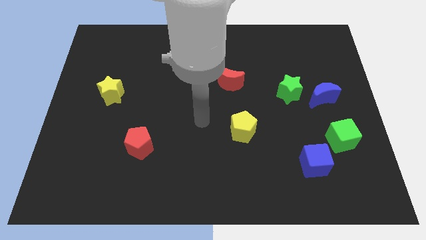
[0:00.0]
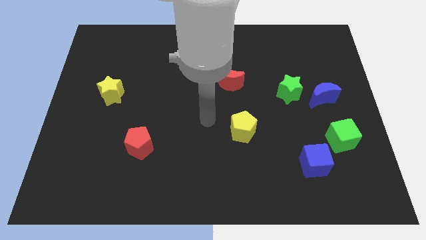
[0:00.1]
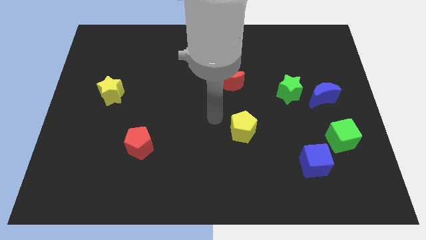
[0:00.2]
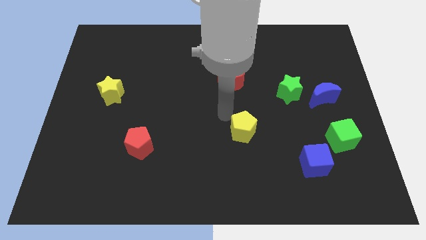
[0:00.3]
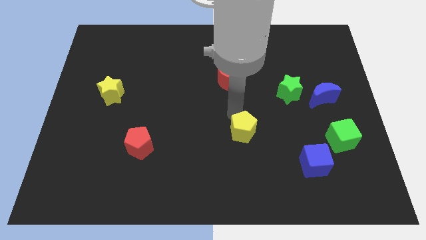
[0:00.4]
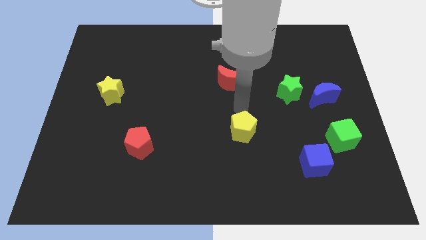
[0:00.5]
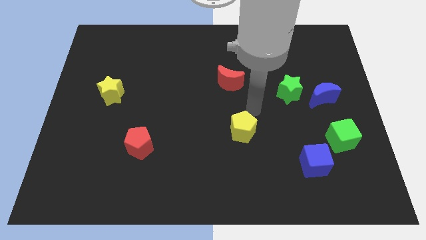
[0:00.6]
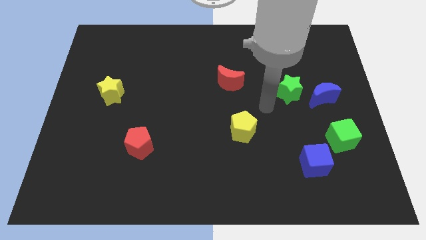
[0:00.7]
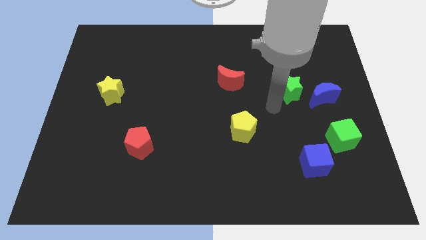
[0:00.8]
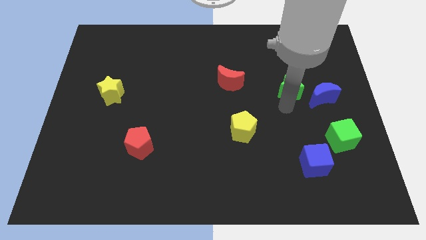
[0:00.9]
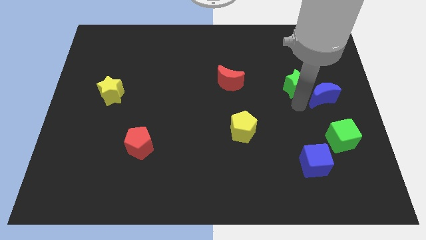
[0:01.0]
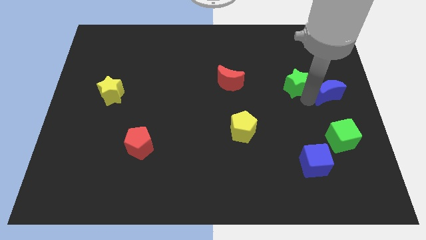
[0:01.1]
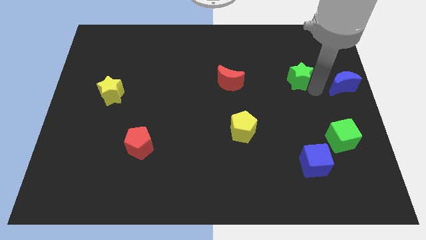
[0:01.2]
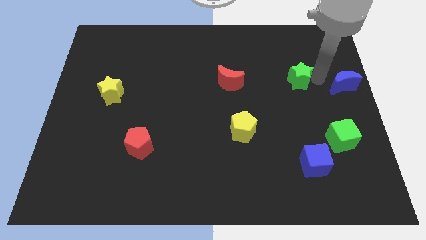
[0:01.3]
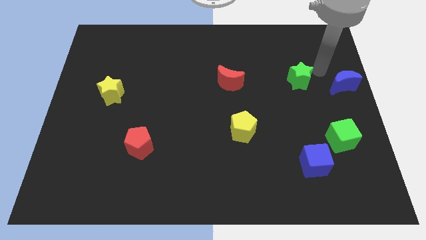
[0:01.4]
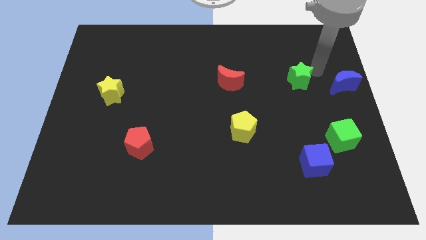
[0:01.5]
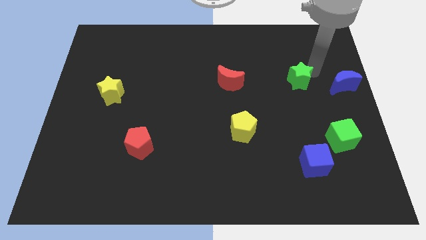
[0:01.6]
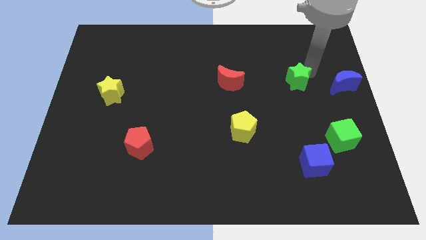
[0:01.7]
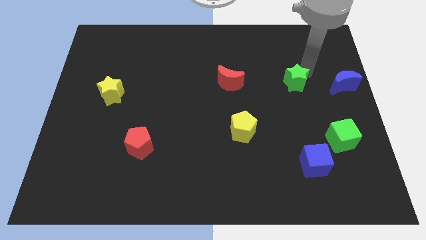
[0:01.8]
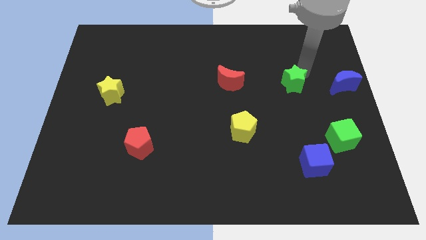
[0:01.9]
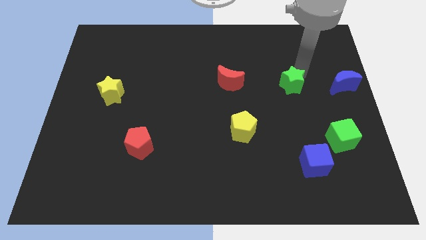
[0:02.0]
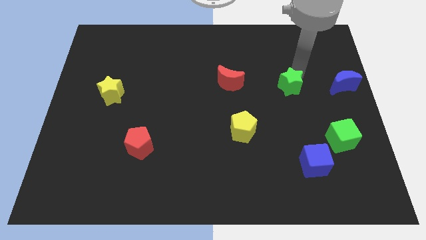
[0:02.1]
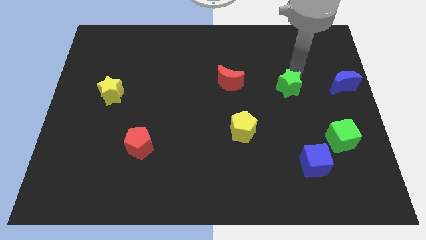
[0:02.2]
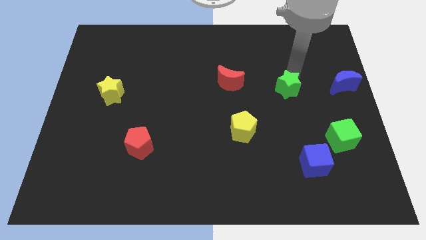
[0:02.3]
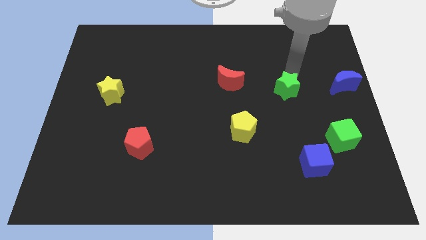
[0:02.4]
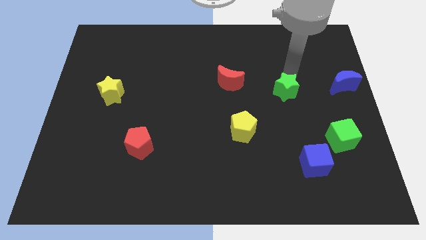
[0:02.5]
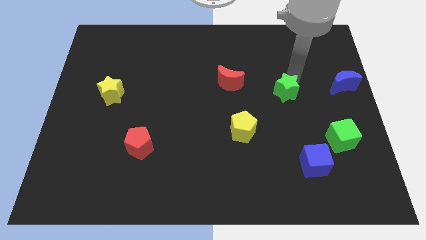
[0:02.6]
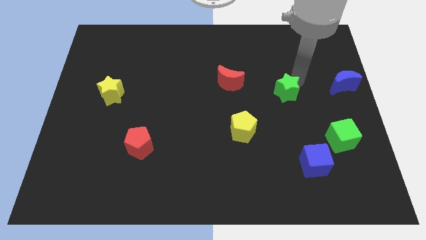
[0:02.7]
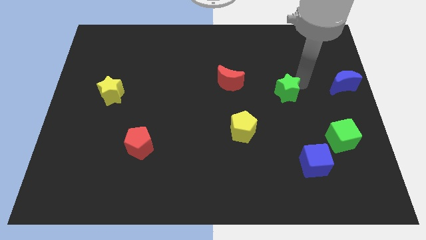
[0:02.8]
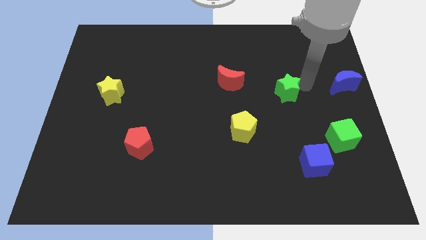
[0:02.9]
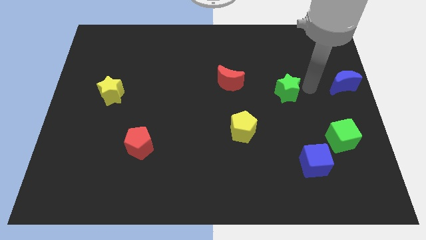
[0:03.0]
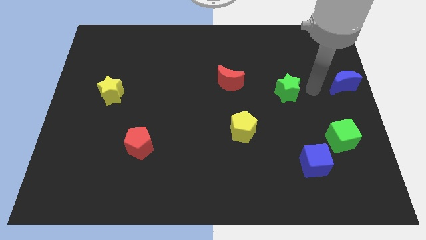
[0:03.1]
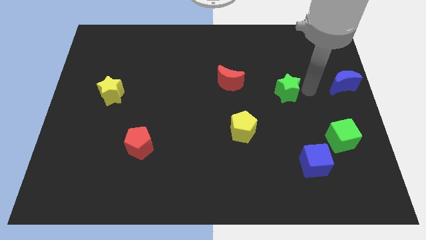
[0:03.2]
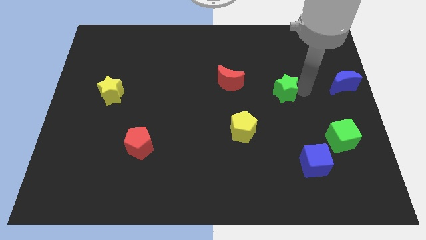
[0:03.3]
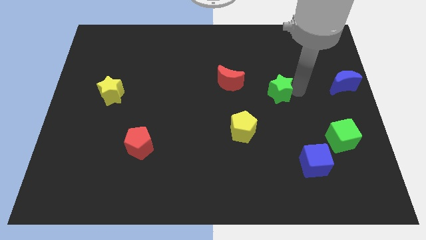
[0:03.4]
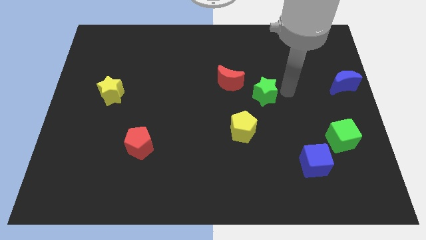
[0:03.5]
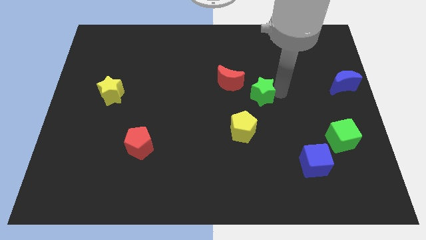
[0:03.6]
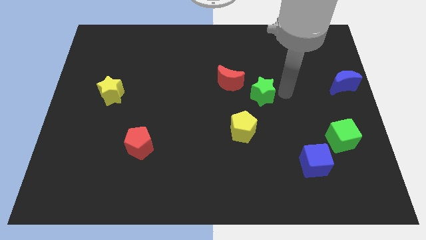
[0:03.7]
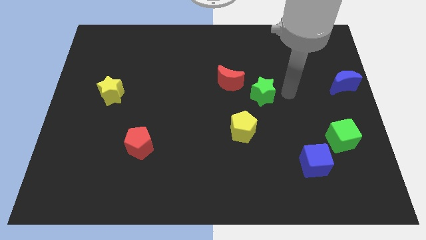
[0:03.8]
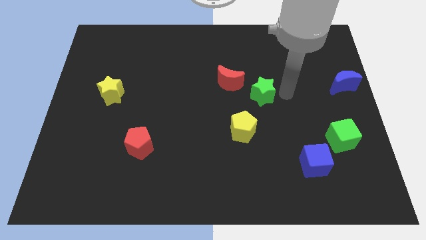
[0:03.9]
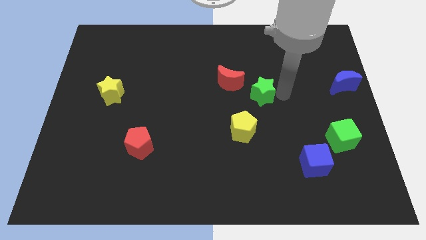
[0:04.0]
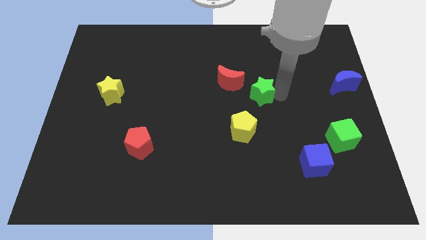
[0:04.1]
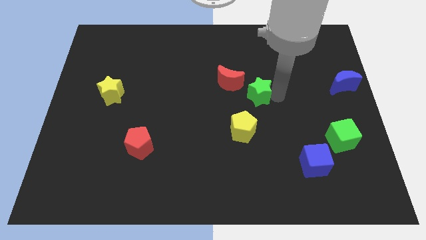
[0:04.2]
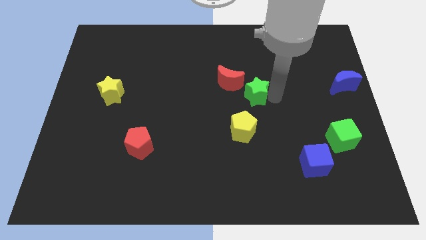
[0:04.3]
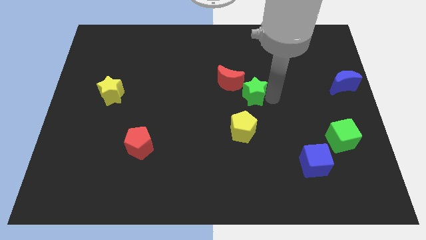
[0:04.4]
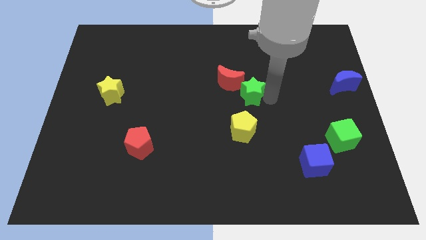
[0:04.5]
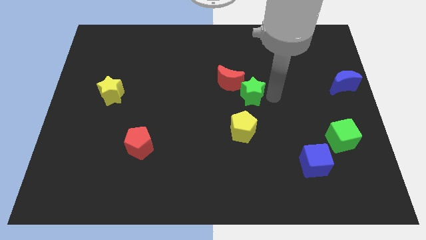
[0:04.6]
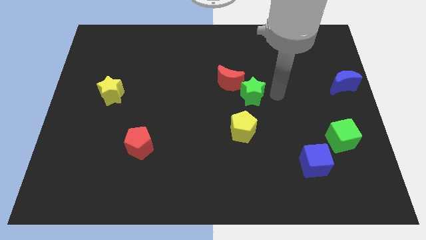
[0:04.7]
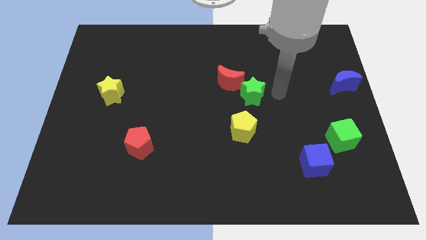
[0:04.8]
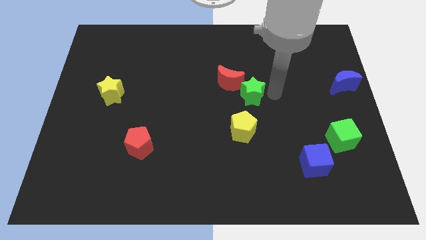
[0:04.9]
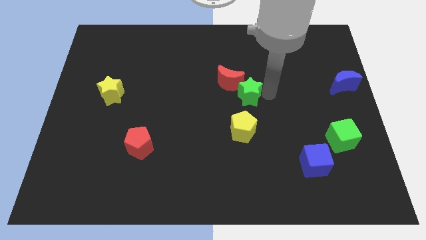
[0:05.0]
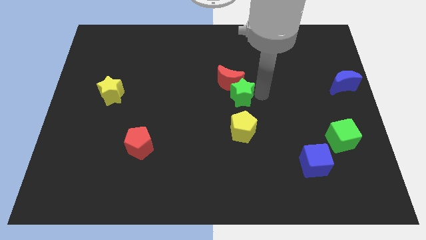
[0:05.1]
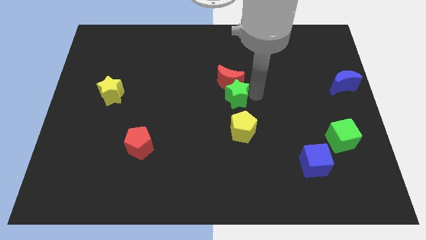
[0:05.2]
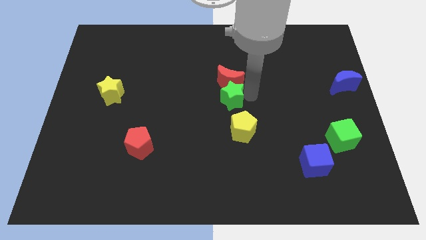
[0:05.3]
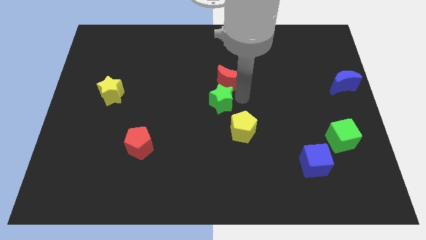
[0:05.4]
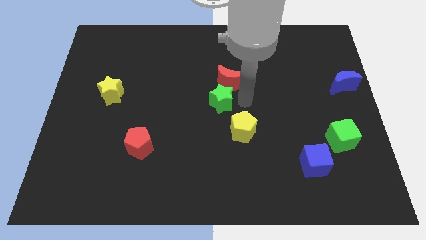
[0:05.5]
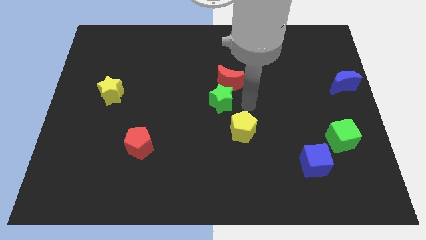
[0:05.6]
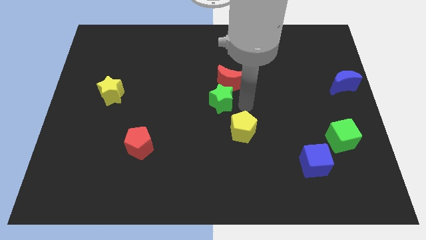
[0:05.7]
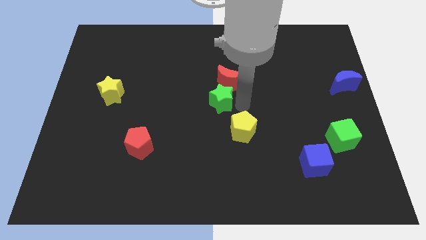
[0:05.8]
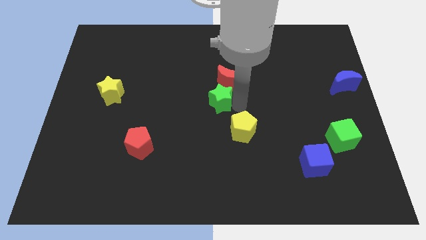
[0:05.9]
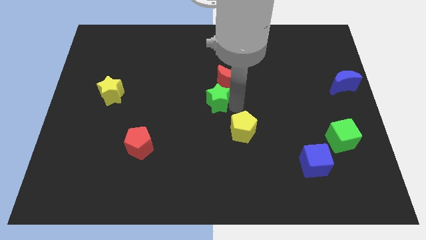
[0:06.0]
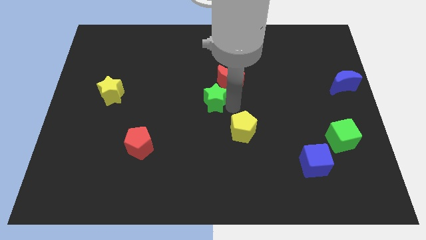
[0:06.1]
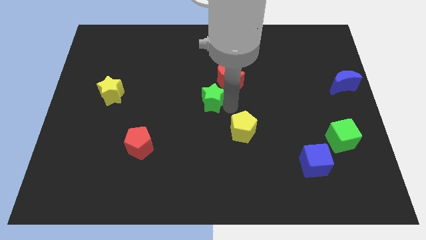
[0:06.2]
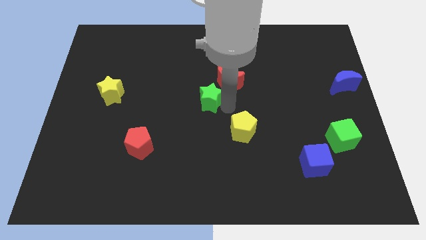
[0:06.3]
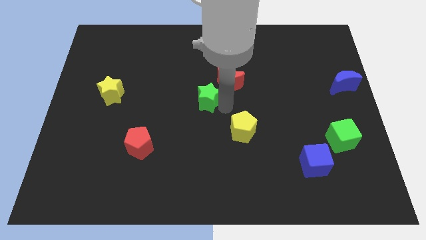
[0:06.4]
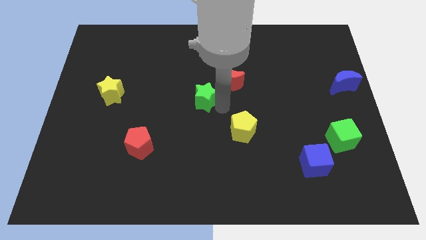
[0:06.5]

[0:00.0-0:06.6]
push the green star left

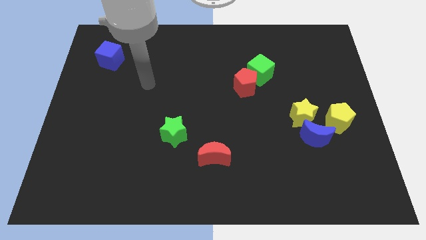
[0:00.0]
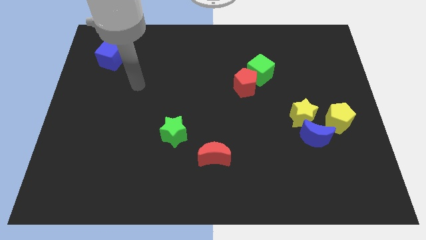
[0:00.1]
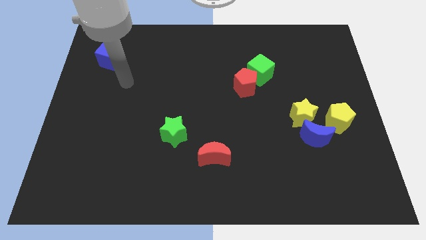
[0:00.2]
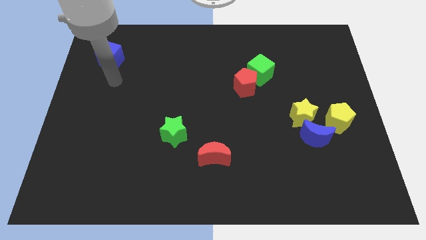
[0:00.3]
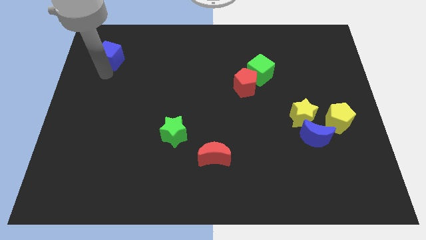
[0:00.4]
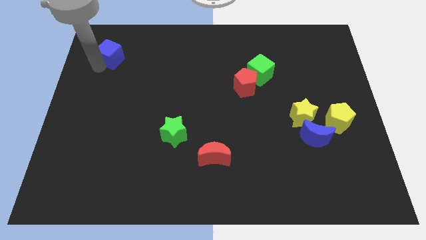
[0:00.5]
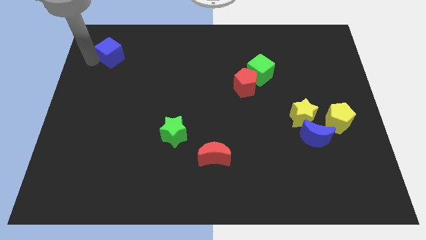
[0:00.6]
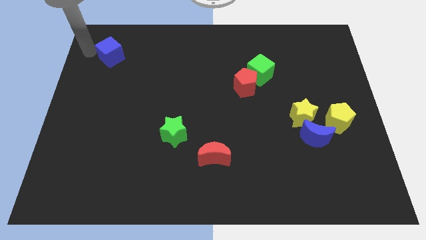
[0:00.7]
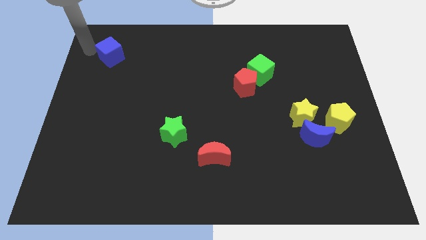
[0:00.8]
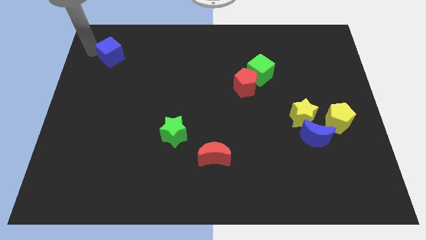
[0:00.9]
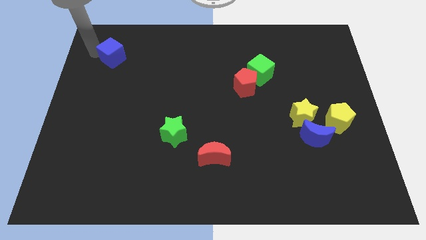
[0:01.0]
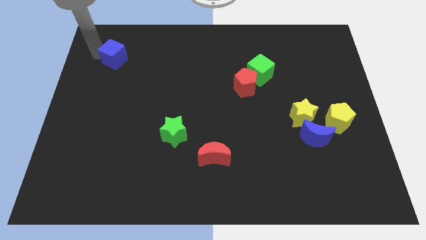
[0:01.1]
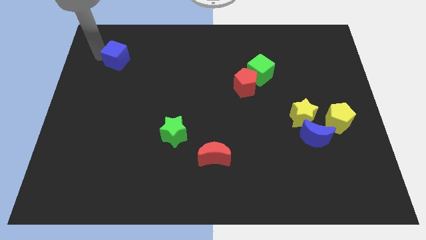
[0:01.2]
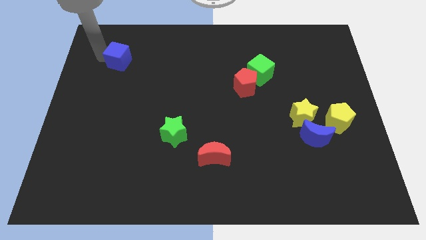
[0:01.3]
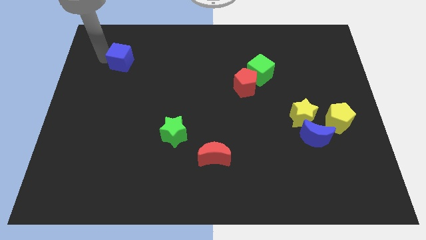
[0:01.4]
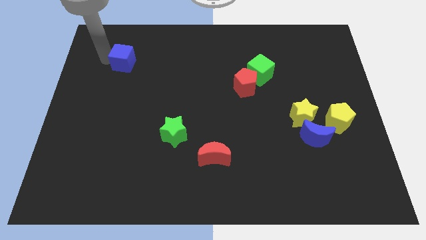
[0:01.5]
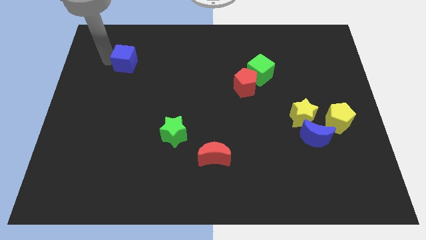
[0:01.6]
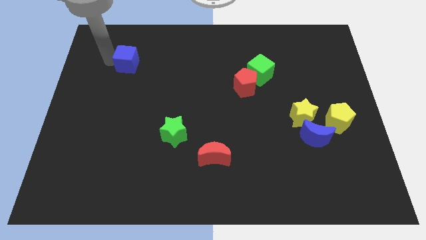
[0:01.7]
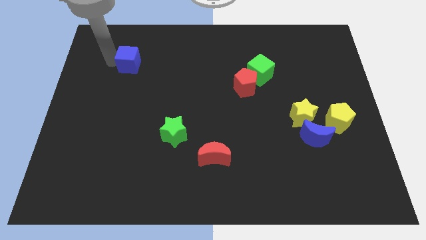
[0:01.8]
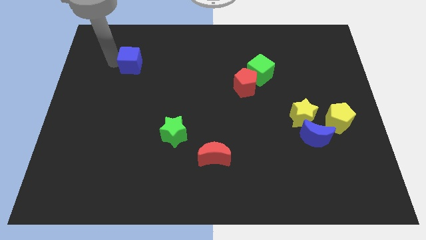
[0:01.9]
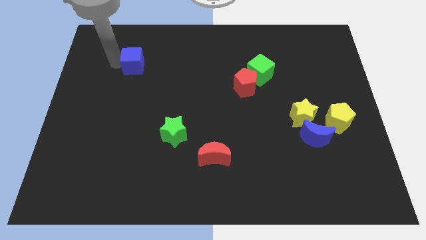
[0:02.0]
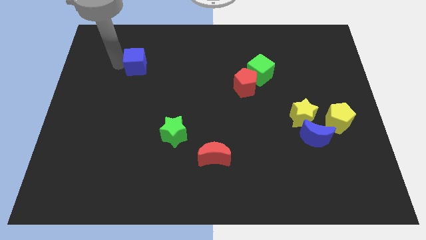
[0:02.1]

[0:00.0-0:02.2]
slightly slide the blue cube right
